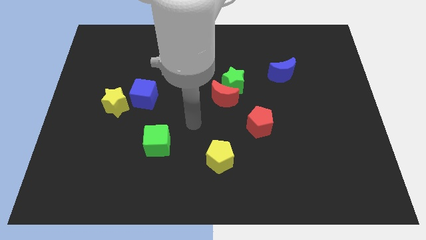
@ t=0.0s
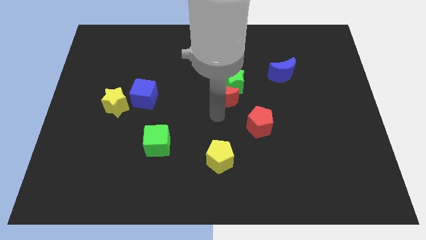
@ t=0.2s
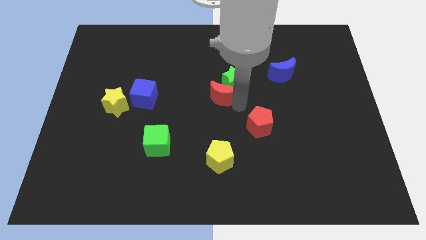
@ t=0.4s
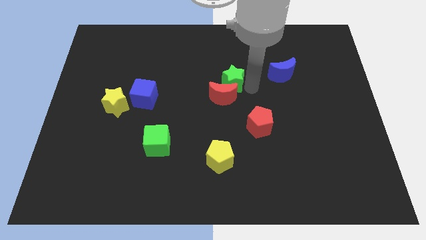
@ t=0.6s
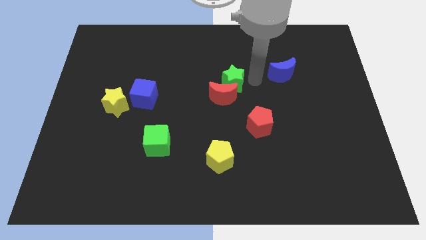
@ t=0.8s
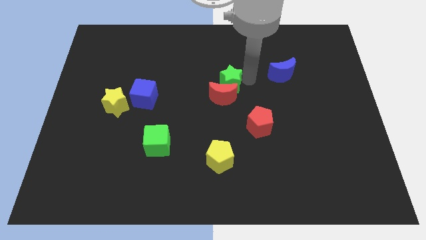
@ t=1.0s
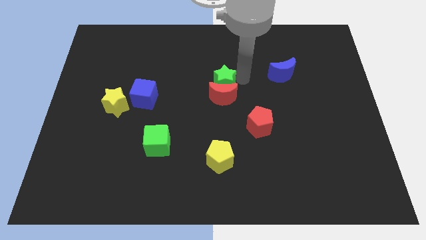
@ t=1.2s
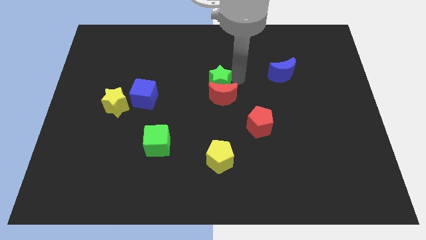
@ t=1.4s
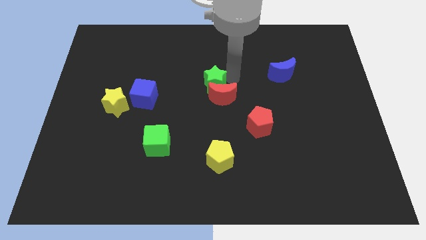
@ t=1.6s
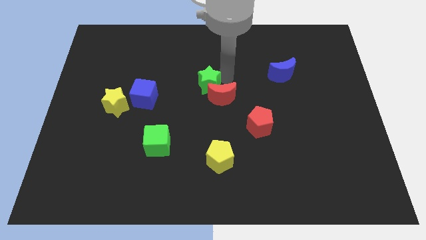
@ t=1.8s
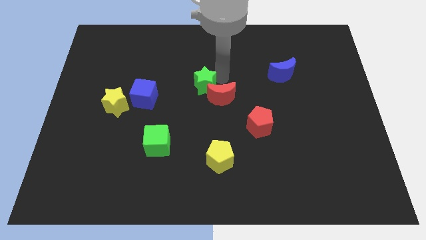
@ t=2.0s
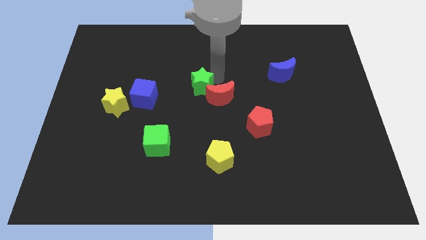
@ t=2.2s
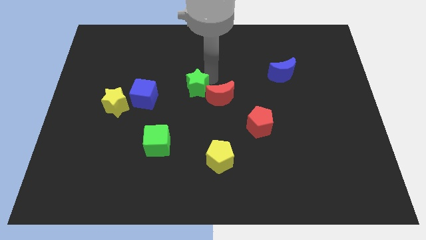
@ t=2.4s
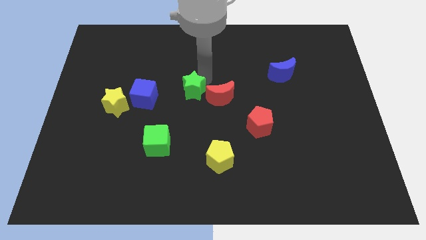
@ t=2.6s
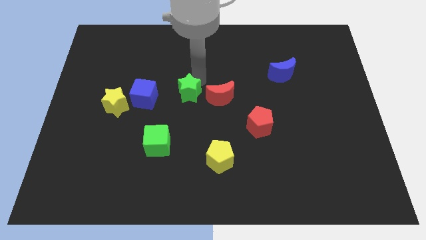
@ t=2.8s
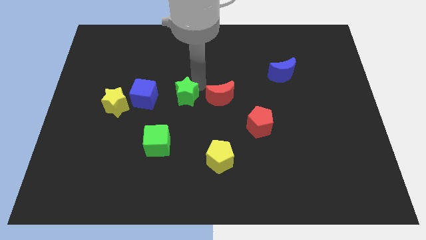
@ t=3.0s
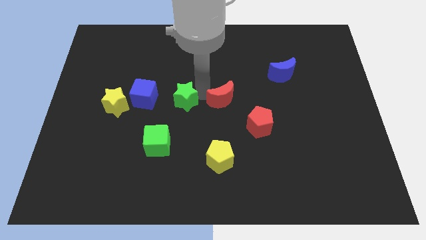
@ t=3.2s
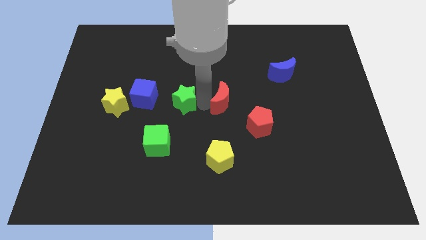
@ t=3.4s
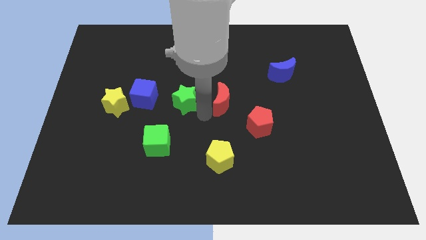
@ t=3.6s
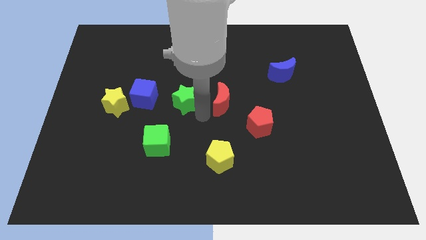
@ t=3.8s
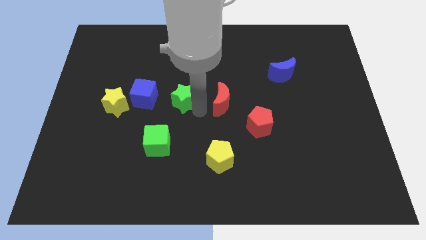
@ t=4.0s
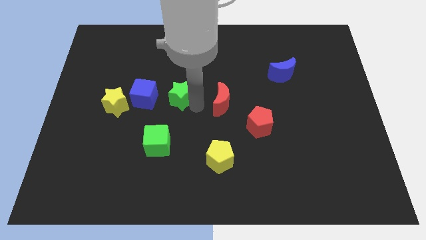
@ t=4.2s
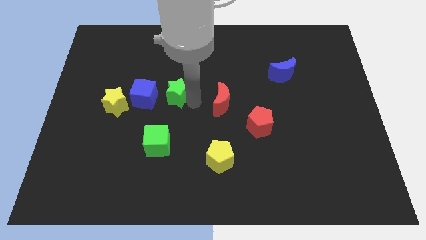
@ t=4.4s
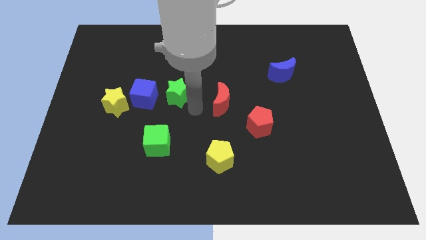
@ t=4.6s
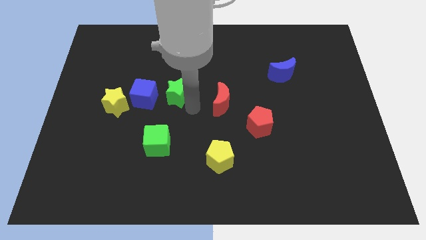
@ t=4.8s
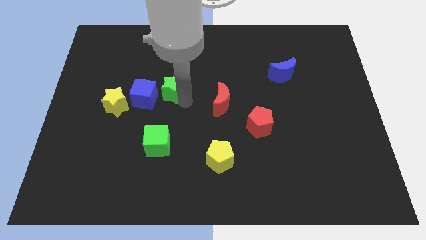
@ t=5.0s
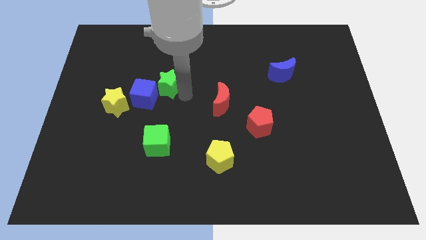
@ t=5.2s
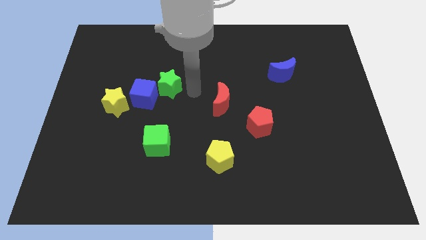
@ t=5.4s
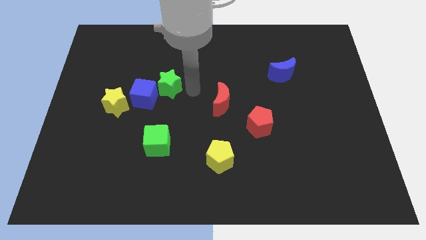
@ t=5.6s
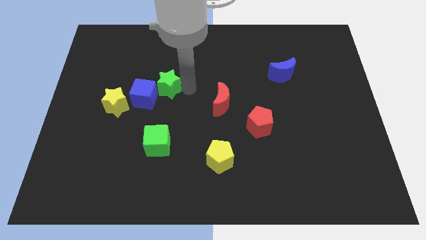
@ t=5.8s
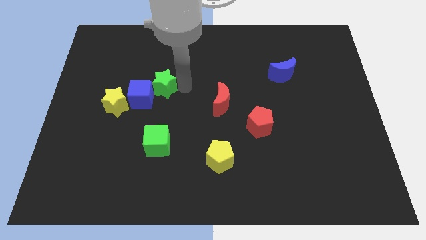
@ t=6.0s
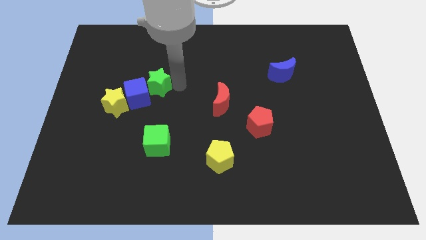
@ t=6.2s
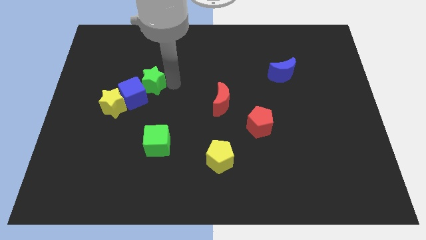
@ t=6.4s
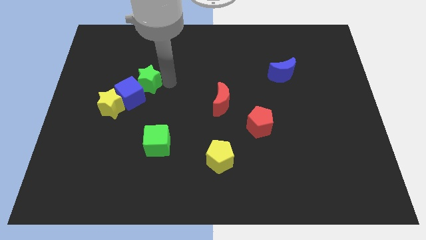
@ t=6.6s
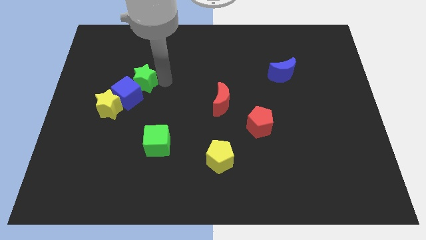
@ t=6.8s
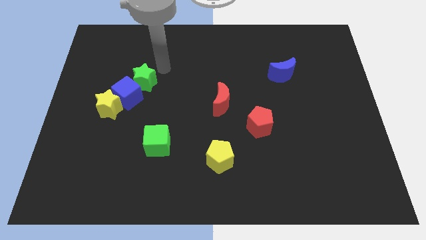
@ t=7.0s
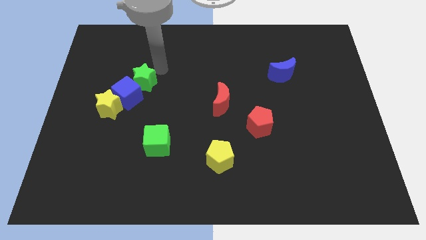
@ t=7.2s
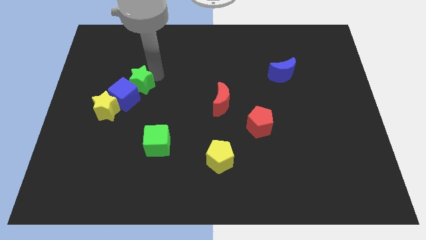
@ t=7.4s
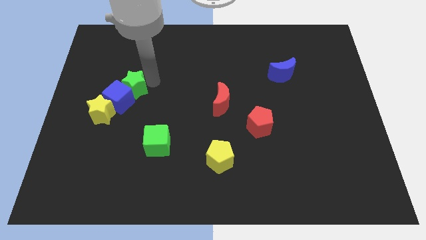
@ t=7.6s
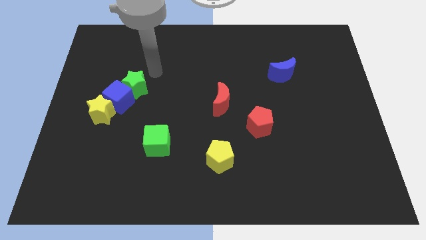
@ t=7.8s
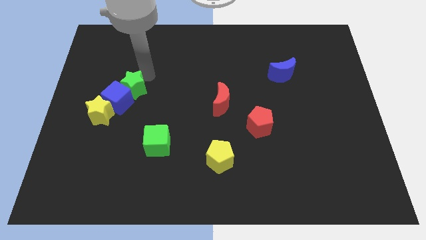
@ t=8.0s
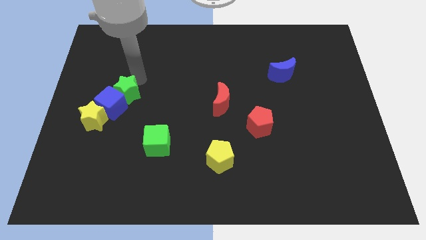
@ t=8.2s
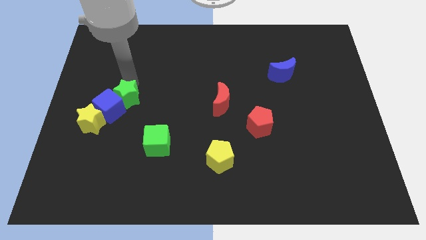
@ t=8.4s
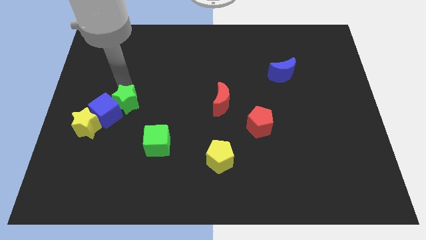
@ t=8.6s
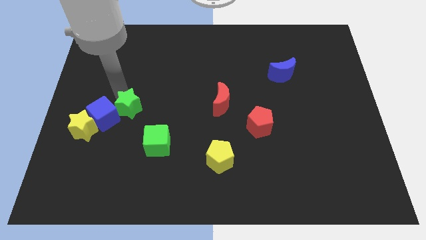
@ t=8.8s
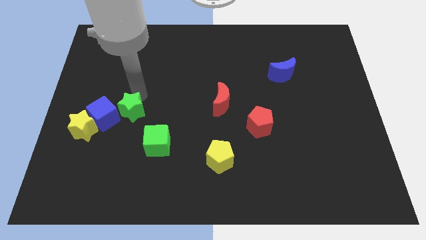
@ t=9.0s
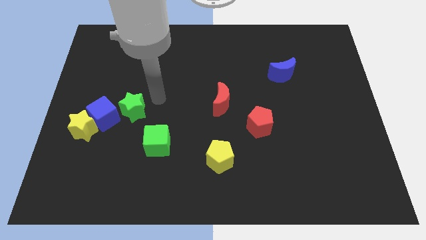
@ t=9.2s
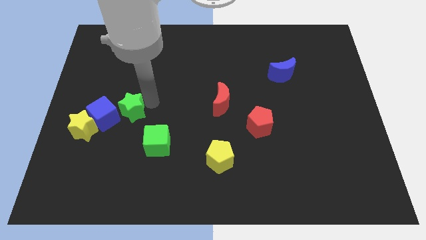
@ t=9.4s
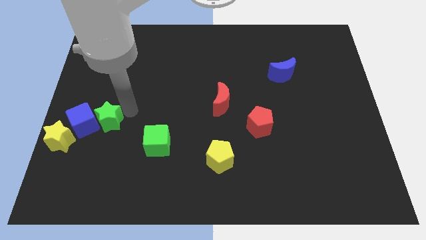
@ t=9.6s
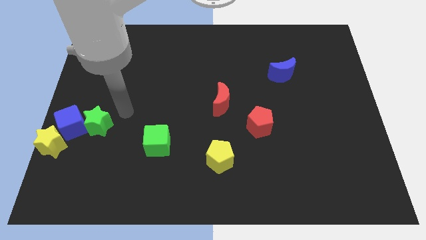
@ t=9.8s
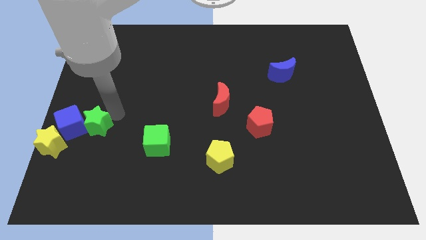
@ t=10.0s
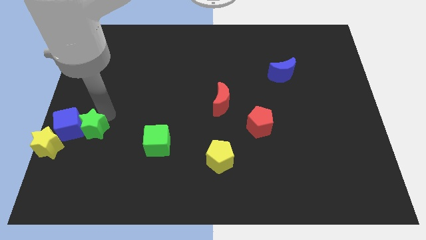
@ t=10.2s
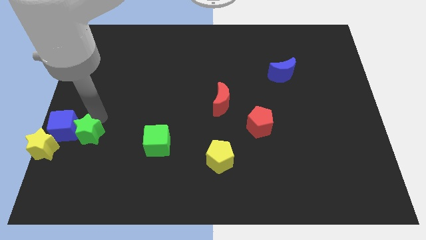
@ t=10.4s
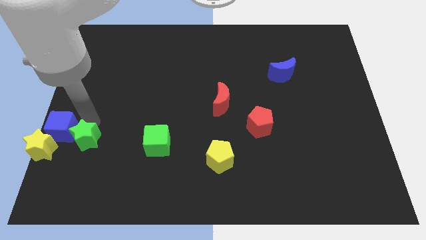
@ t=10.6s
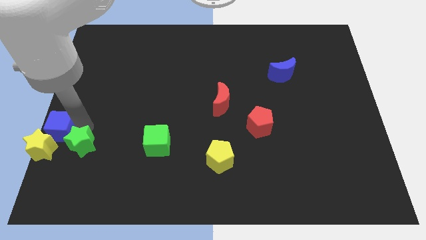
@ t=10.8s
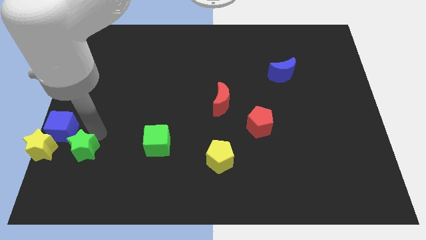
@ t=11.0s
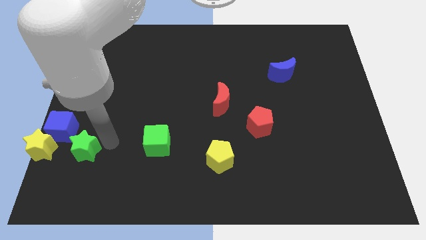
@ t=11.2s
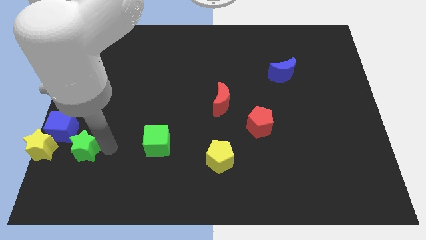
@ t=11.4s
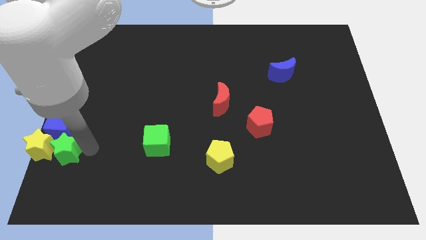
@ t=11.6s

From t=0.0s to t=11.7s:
slide the green star close to the yellow star

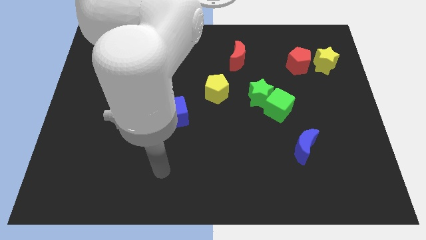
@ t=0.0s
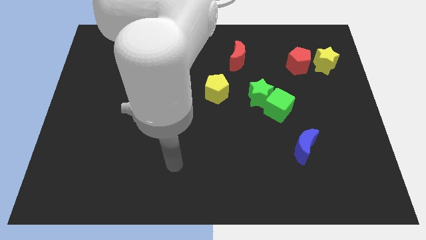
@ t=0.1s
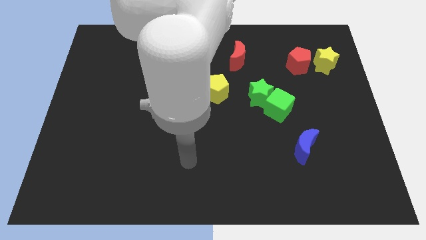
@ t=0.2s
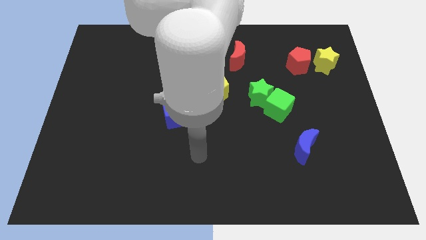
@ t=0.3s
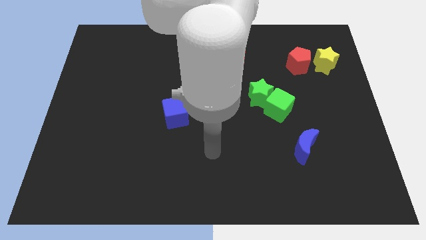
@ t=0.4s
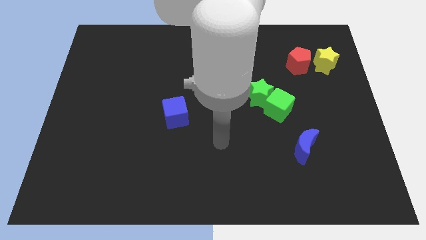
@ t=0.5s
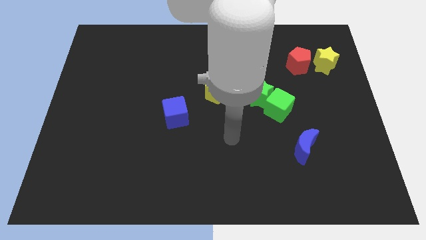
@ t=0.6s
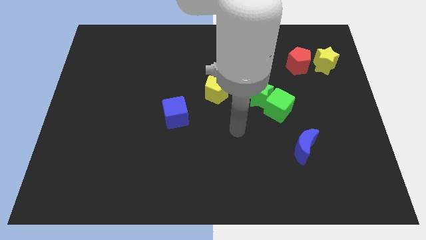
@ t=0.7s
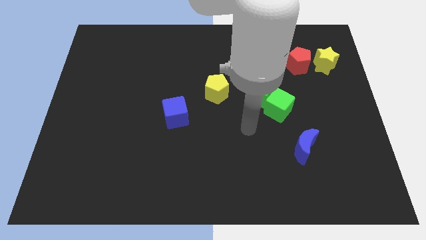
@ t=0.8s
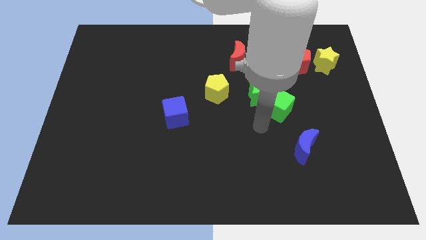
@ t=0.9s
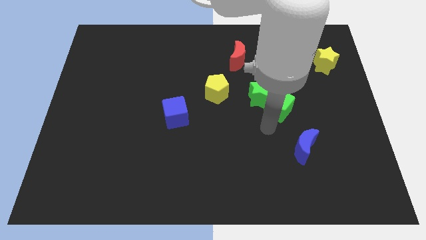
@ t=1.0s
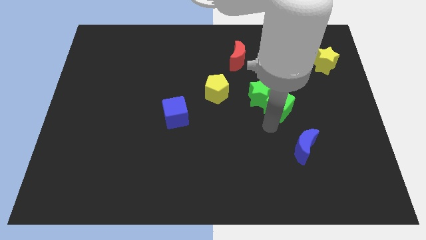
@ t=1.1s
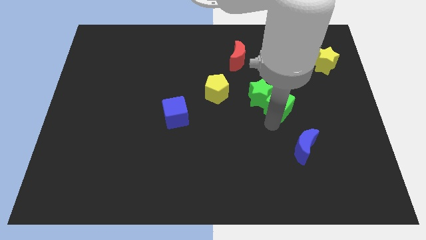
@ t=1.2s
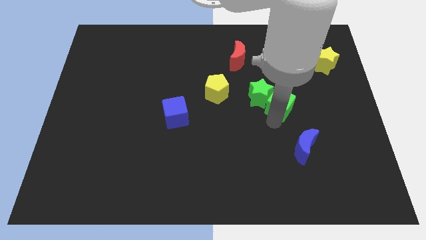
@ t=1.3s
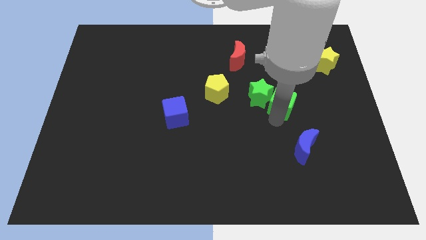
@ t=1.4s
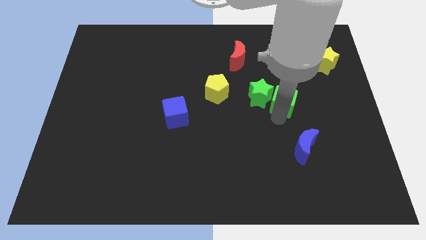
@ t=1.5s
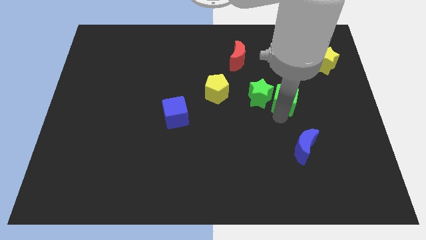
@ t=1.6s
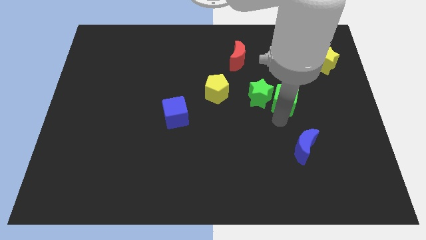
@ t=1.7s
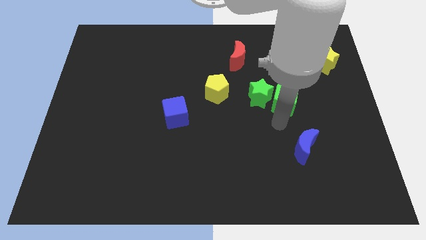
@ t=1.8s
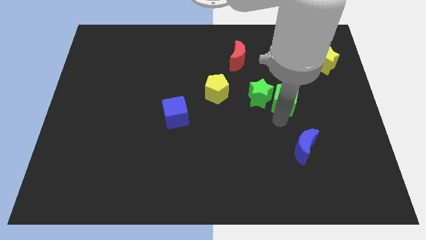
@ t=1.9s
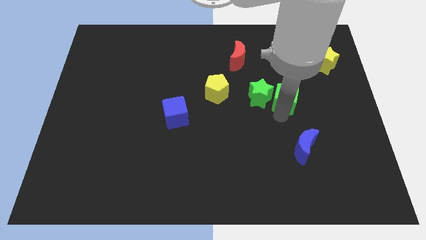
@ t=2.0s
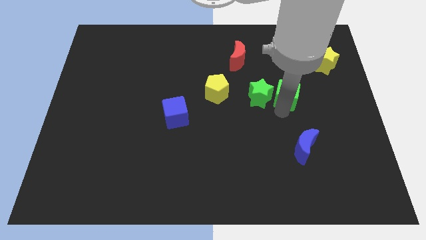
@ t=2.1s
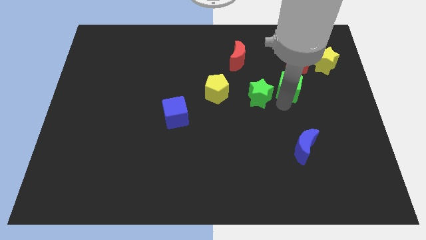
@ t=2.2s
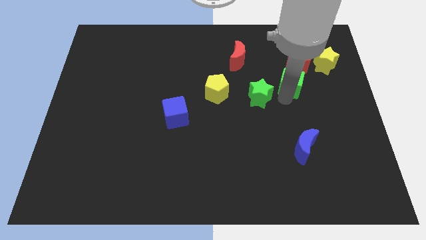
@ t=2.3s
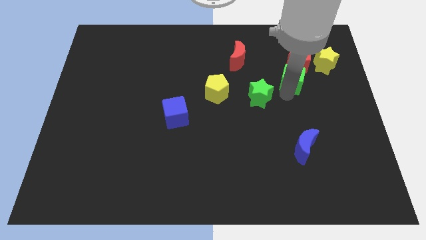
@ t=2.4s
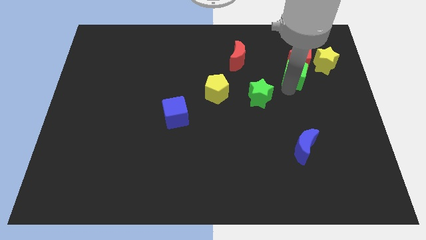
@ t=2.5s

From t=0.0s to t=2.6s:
push the green cube close to the red pentagon
